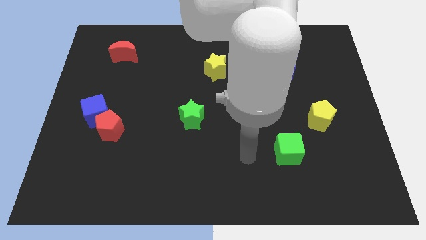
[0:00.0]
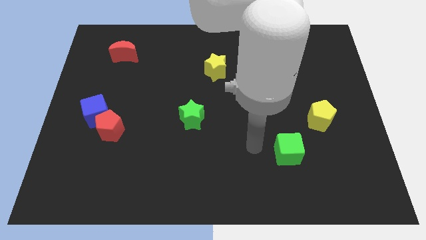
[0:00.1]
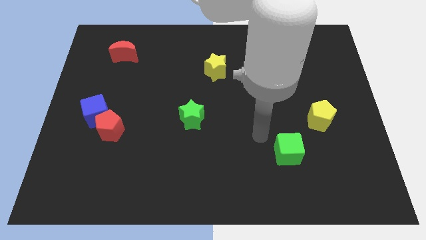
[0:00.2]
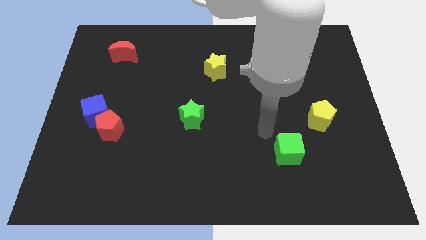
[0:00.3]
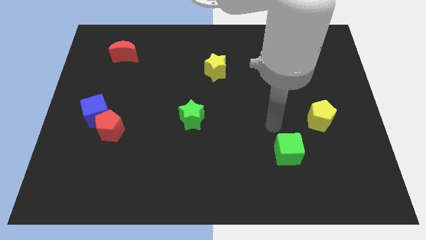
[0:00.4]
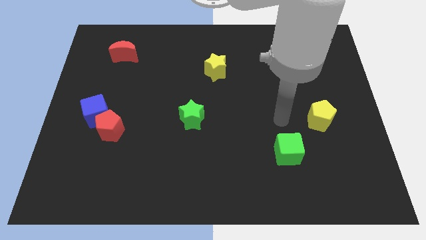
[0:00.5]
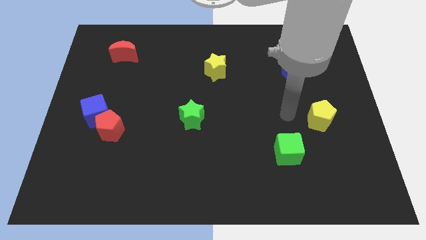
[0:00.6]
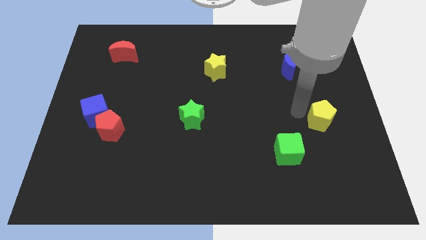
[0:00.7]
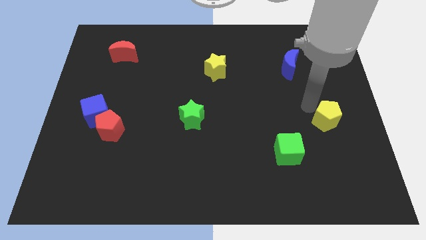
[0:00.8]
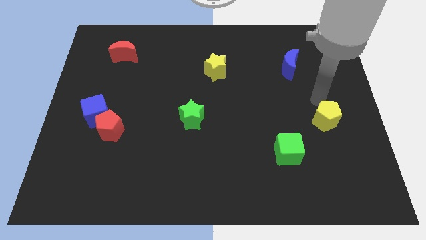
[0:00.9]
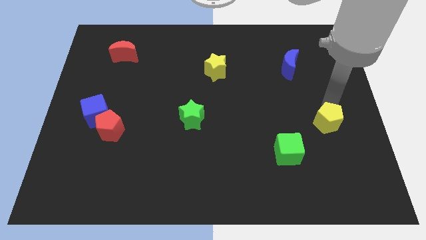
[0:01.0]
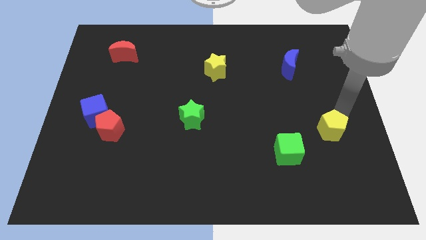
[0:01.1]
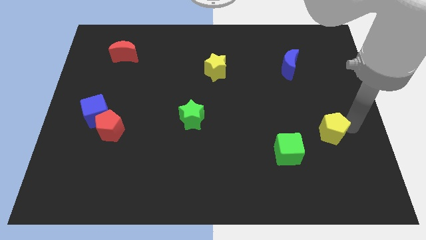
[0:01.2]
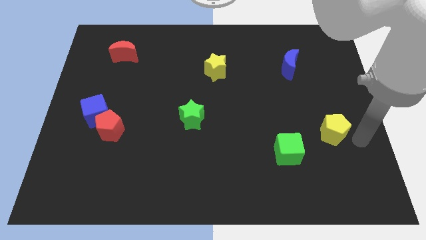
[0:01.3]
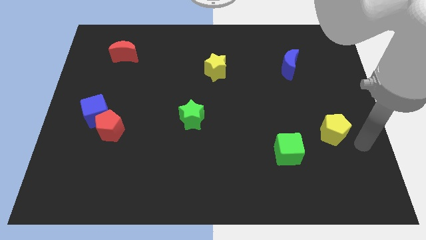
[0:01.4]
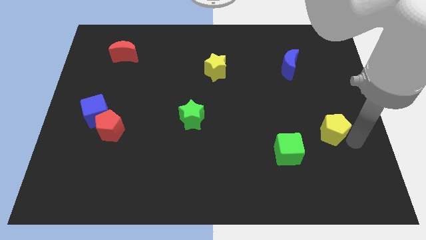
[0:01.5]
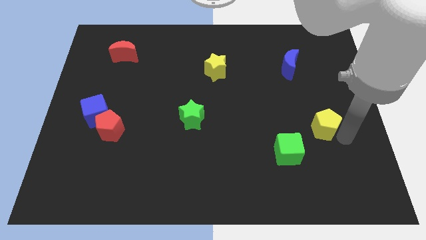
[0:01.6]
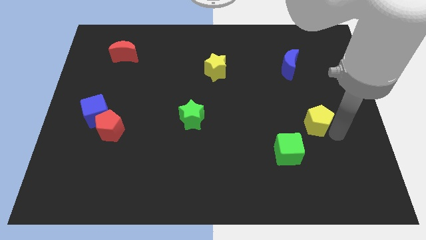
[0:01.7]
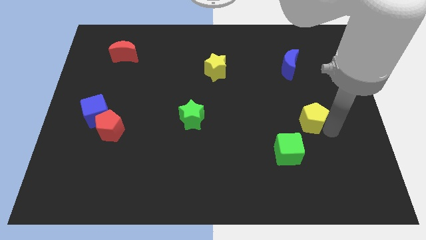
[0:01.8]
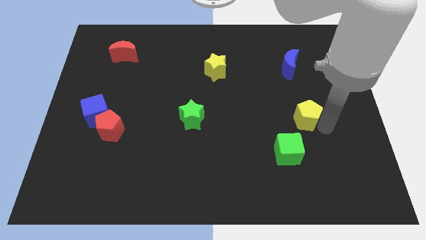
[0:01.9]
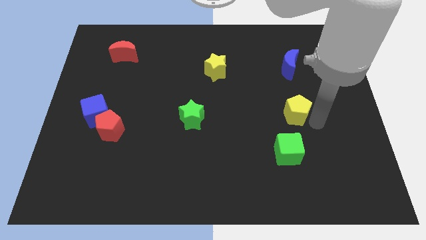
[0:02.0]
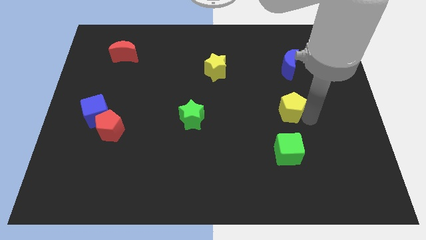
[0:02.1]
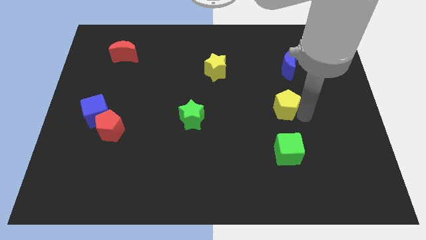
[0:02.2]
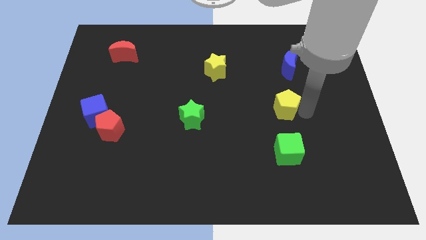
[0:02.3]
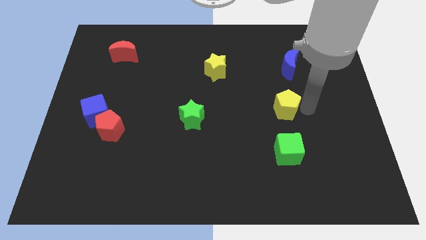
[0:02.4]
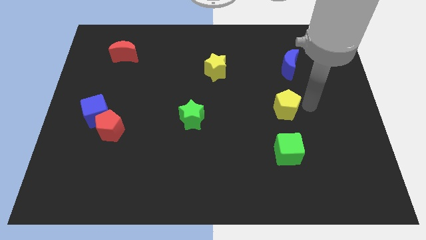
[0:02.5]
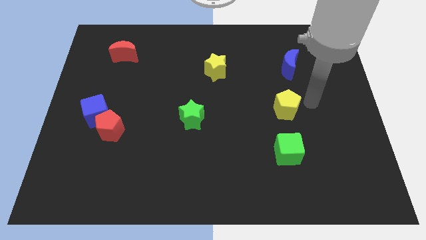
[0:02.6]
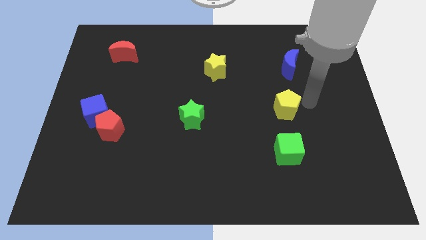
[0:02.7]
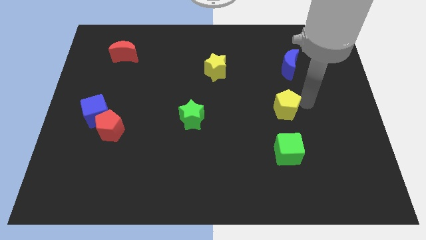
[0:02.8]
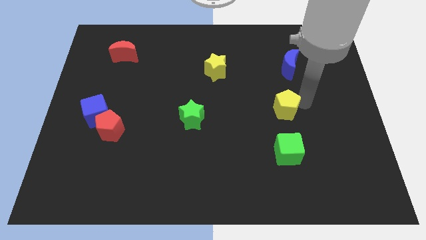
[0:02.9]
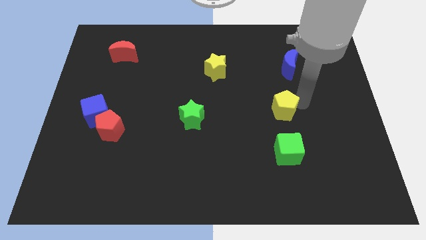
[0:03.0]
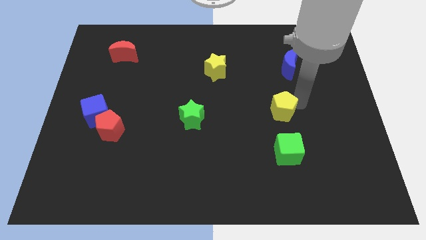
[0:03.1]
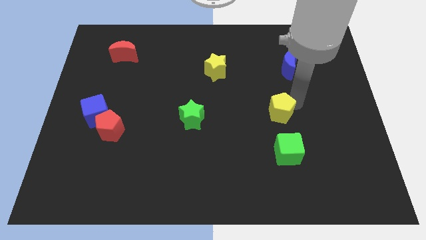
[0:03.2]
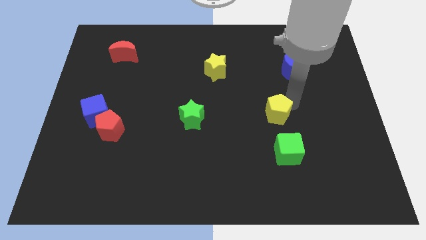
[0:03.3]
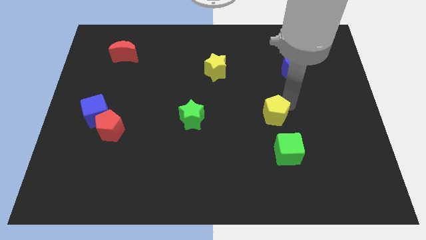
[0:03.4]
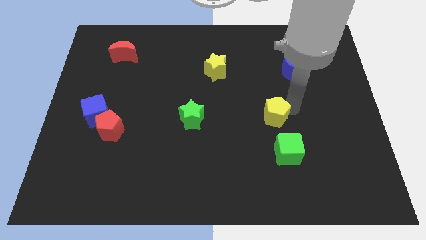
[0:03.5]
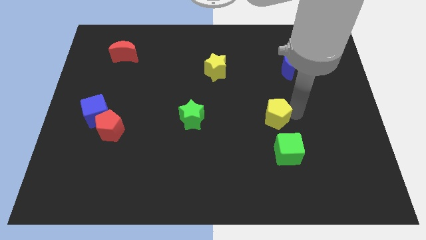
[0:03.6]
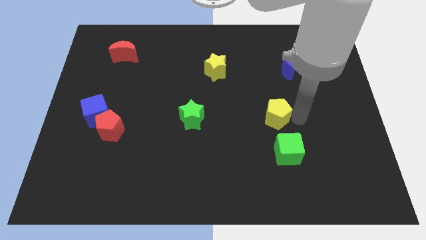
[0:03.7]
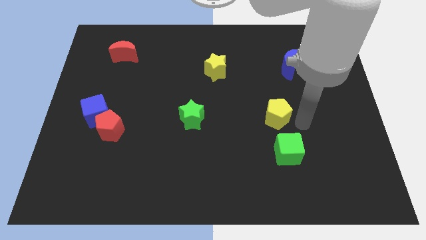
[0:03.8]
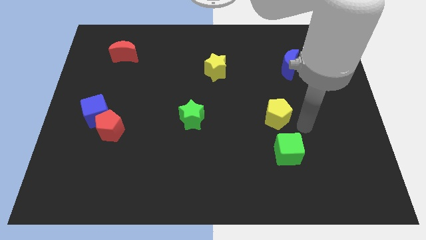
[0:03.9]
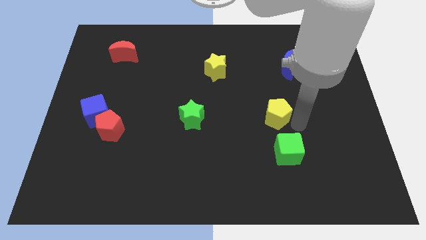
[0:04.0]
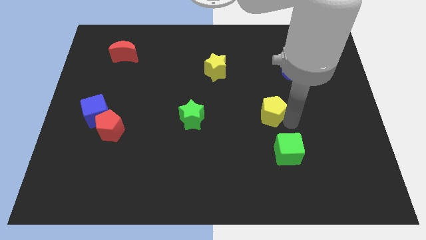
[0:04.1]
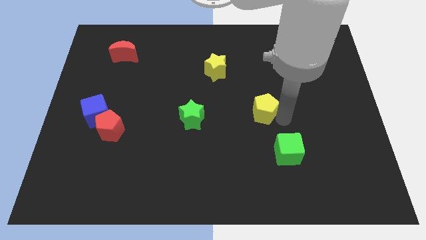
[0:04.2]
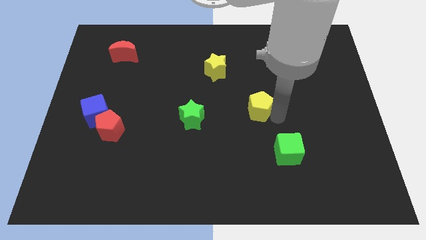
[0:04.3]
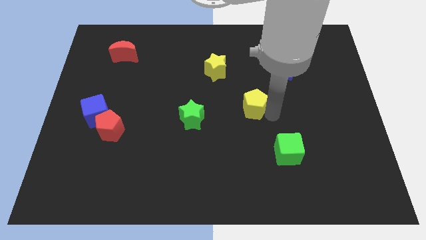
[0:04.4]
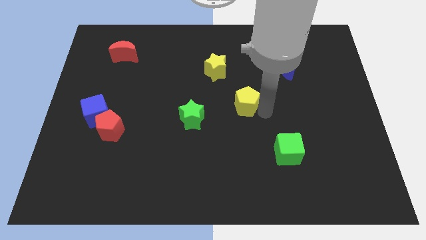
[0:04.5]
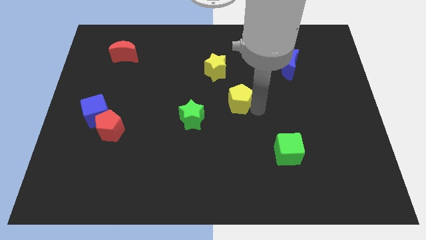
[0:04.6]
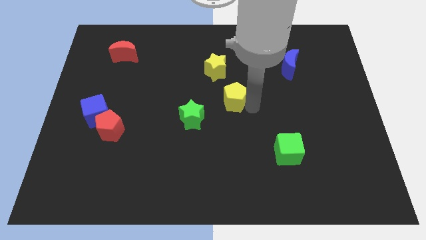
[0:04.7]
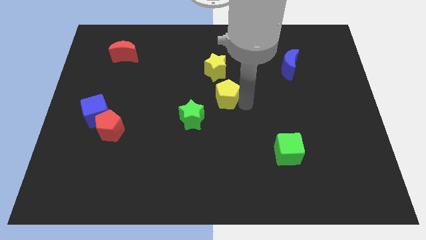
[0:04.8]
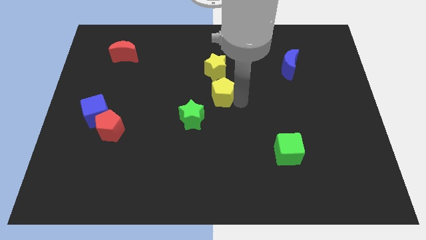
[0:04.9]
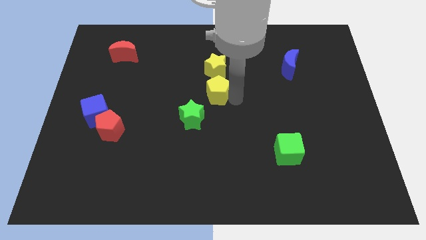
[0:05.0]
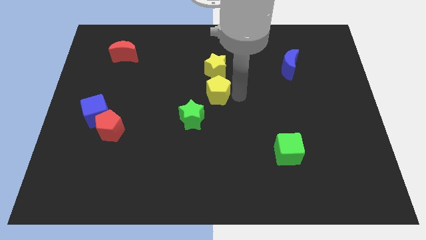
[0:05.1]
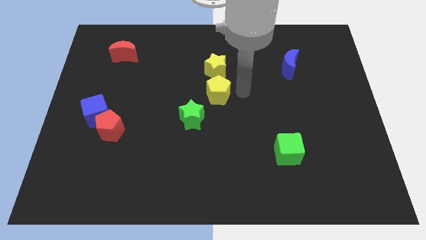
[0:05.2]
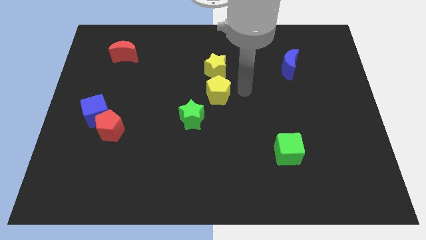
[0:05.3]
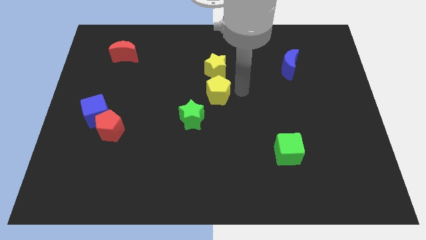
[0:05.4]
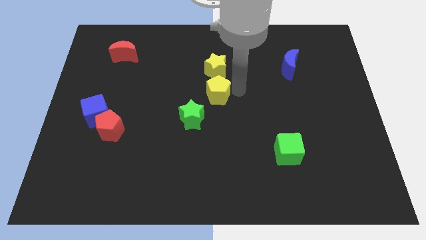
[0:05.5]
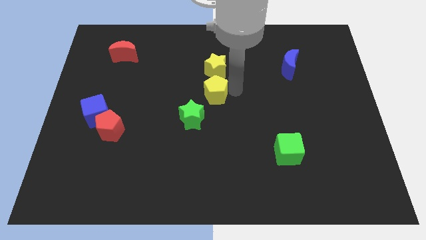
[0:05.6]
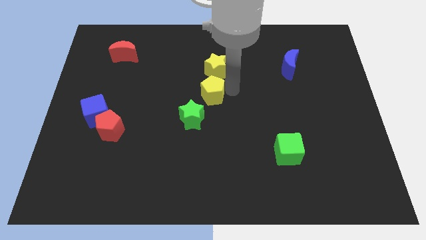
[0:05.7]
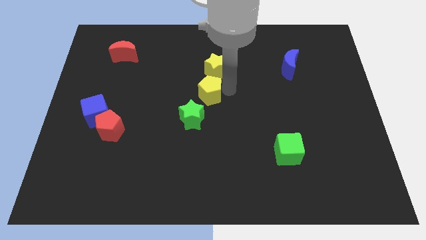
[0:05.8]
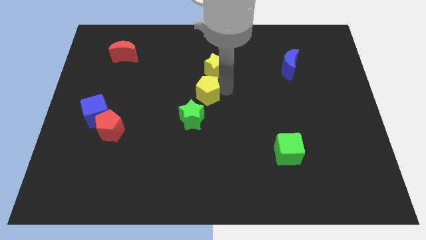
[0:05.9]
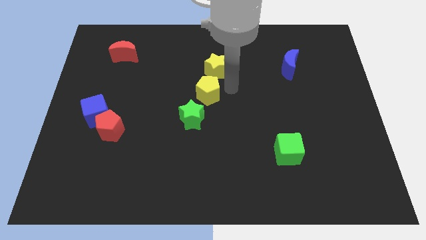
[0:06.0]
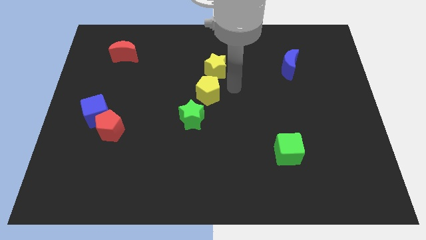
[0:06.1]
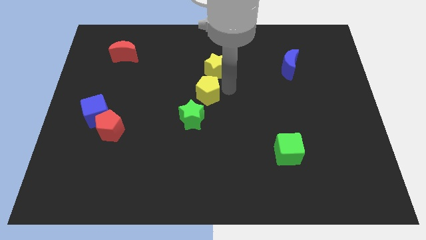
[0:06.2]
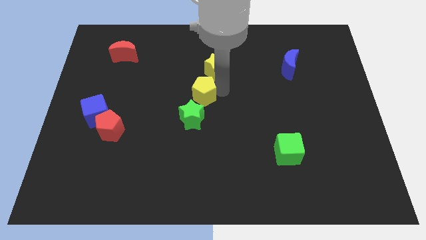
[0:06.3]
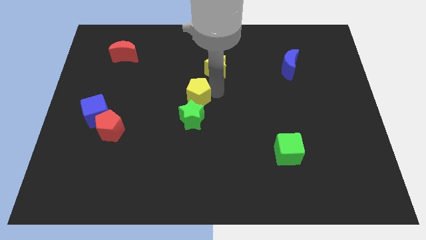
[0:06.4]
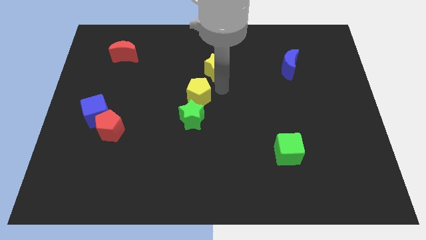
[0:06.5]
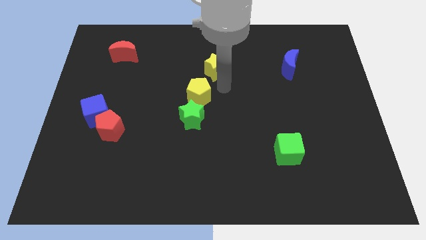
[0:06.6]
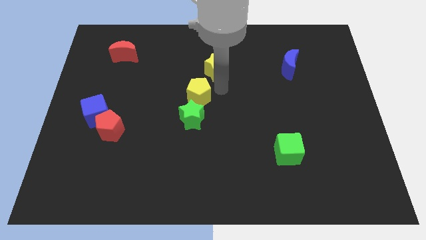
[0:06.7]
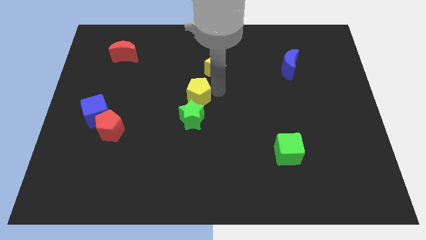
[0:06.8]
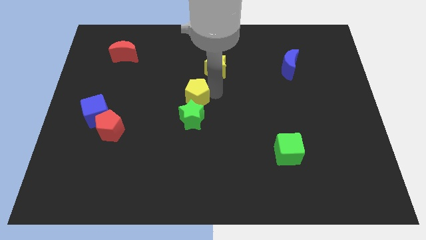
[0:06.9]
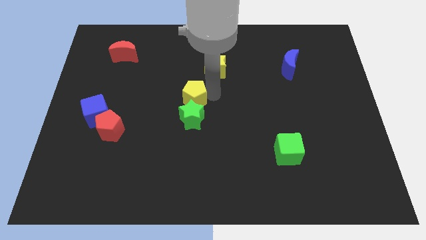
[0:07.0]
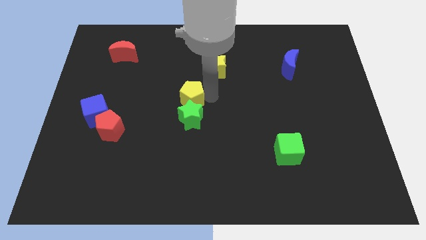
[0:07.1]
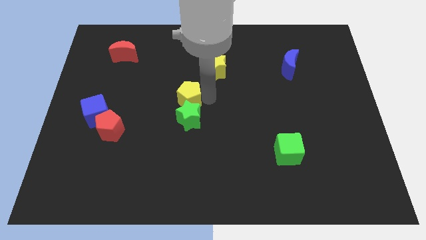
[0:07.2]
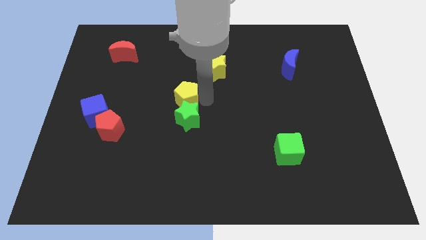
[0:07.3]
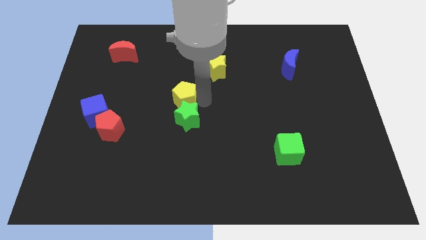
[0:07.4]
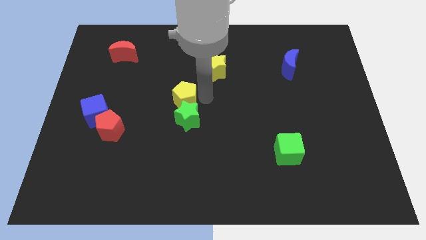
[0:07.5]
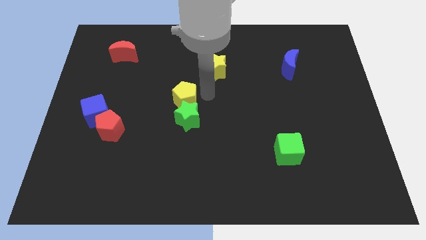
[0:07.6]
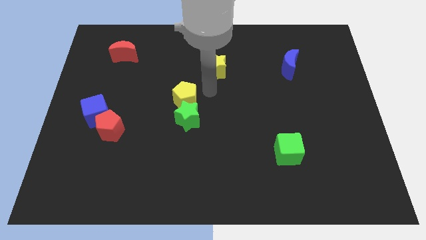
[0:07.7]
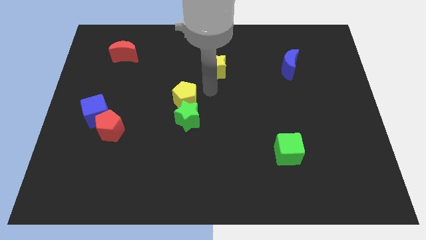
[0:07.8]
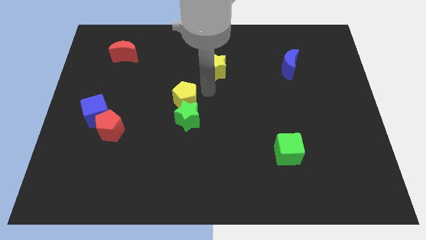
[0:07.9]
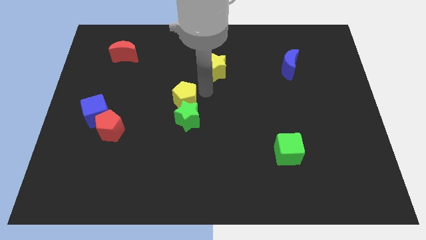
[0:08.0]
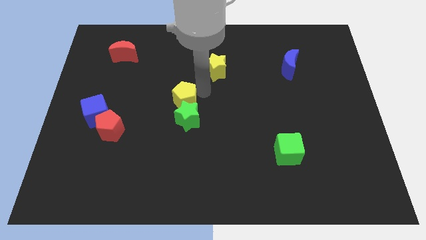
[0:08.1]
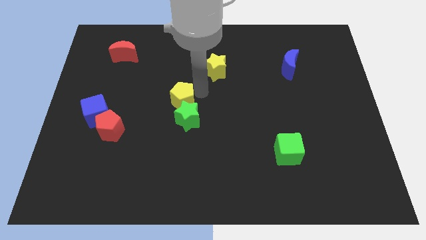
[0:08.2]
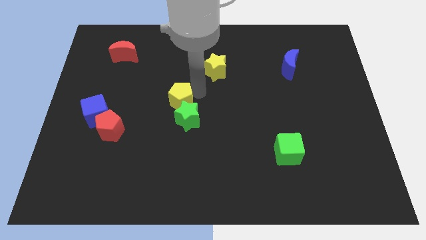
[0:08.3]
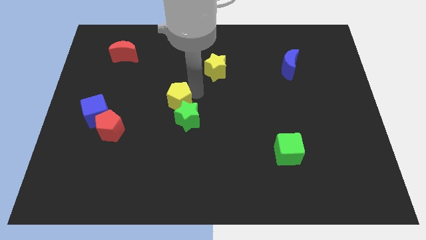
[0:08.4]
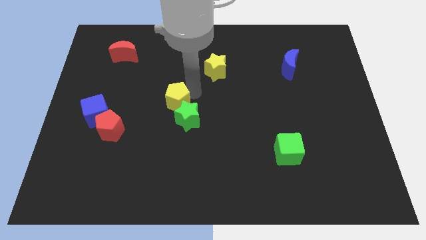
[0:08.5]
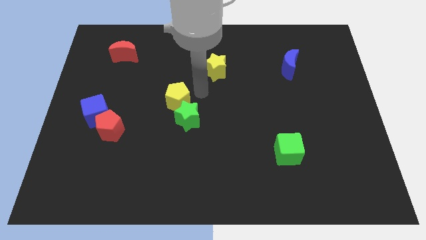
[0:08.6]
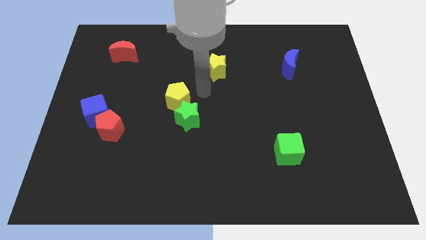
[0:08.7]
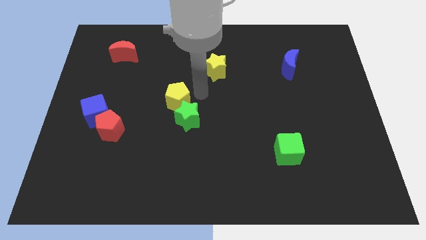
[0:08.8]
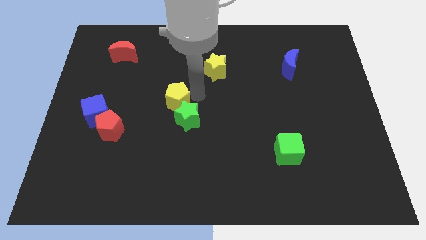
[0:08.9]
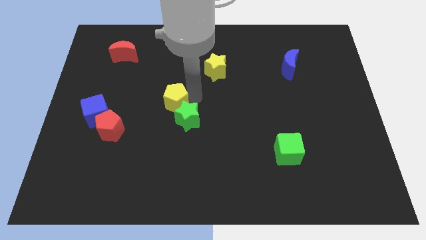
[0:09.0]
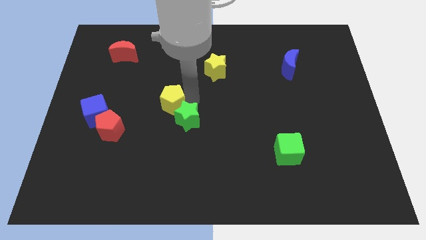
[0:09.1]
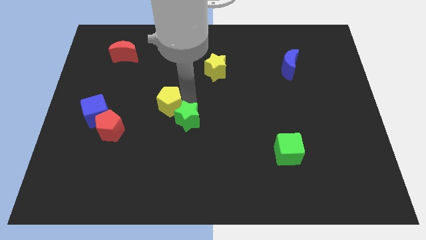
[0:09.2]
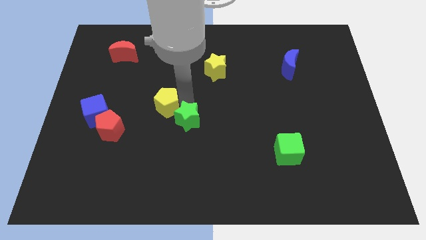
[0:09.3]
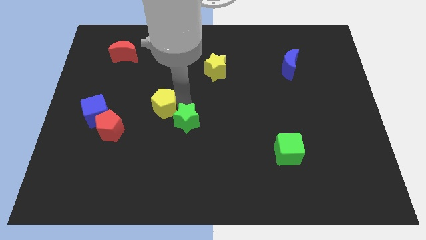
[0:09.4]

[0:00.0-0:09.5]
push the yellow pentagon to the right of the blue cube
